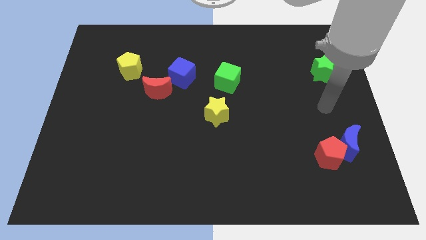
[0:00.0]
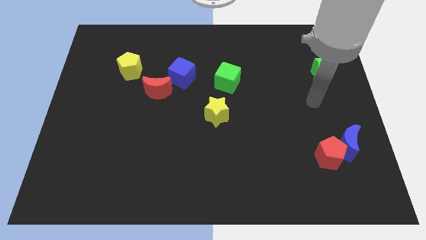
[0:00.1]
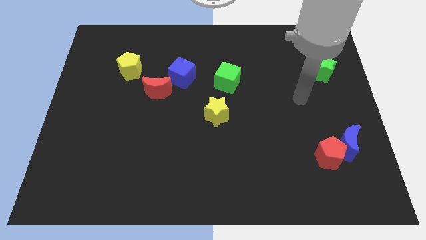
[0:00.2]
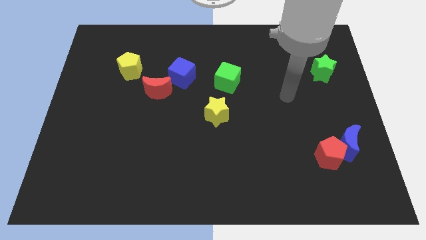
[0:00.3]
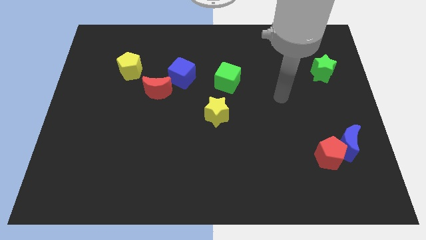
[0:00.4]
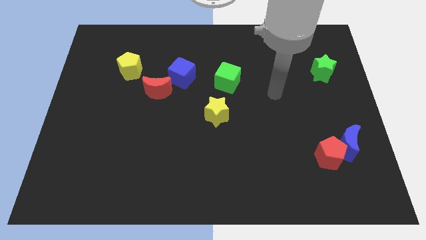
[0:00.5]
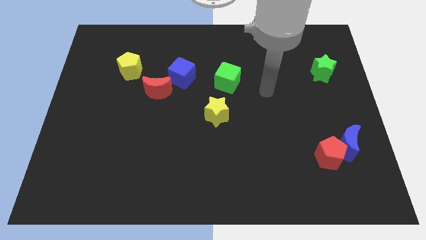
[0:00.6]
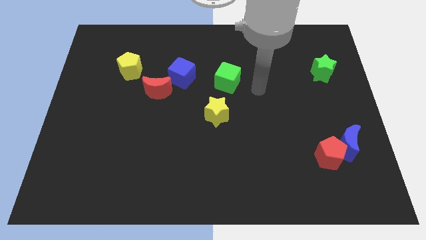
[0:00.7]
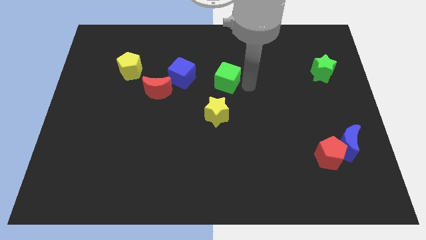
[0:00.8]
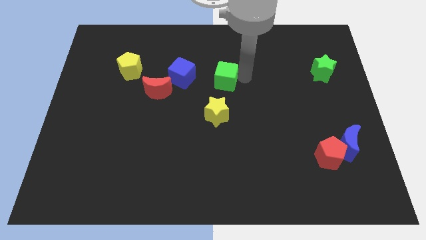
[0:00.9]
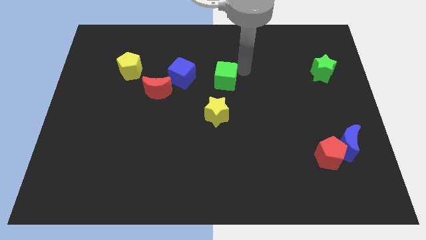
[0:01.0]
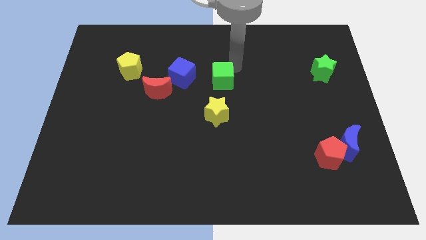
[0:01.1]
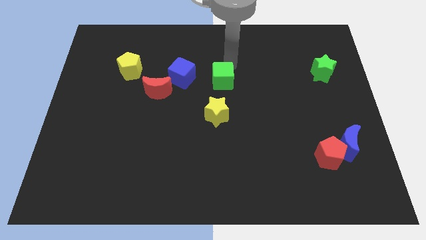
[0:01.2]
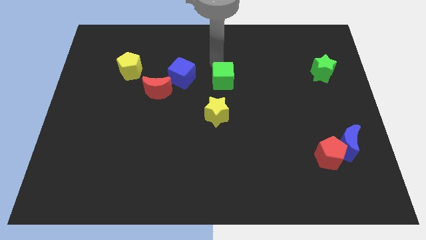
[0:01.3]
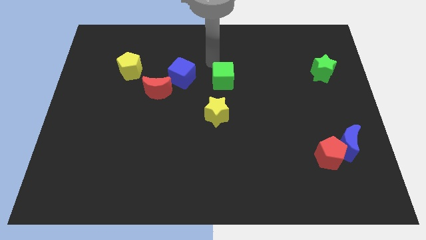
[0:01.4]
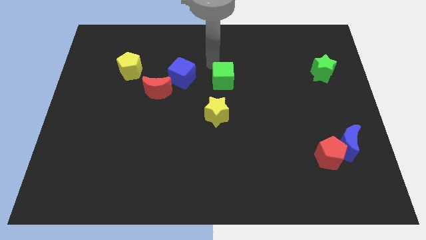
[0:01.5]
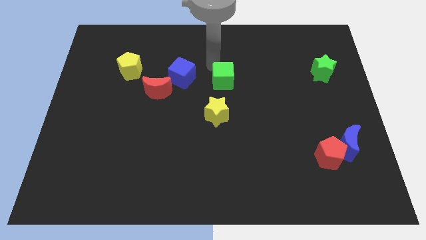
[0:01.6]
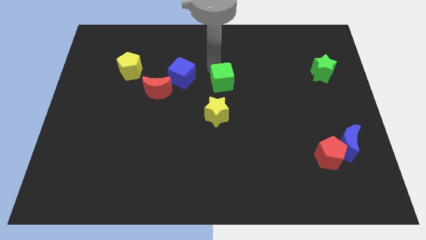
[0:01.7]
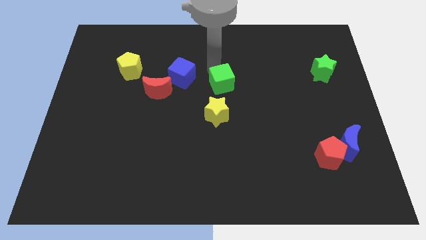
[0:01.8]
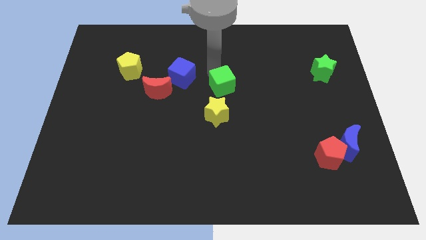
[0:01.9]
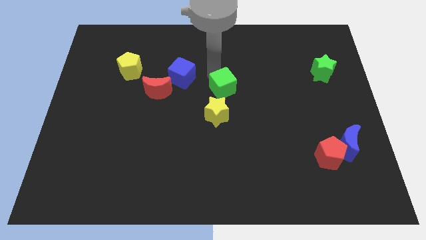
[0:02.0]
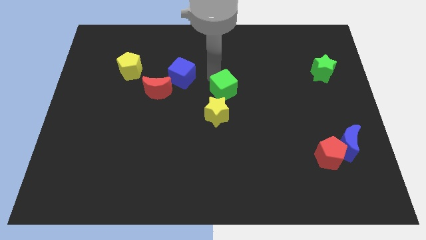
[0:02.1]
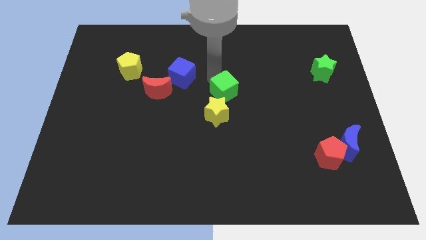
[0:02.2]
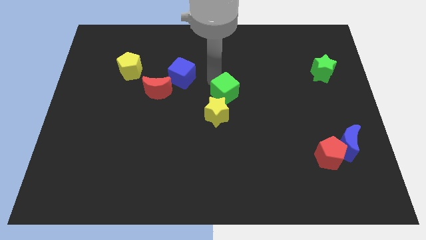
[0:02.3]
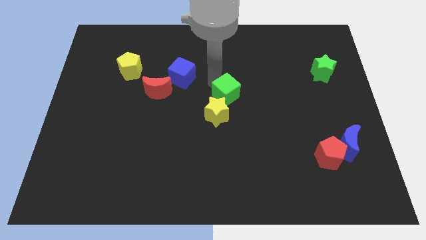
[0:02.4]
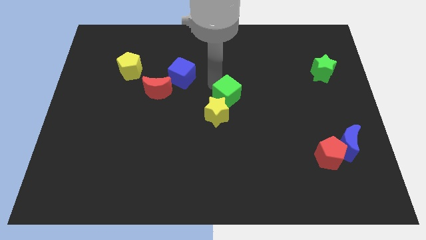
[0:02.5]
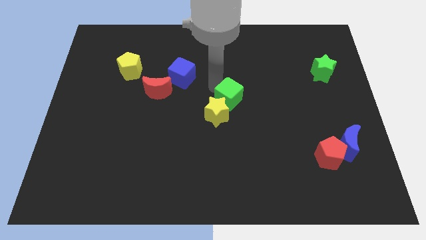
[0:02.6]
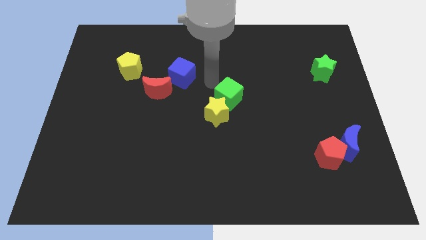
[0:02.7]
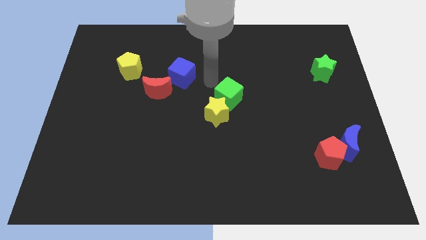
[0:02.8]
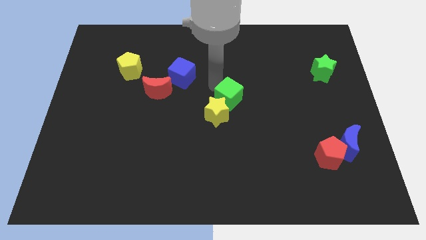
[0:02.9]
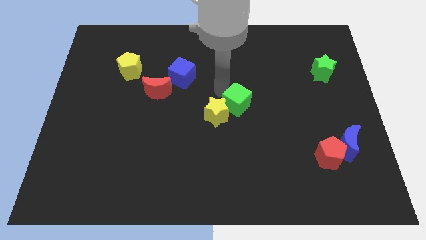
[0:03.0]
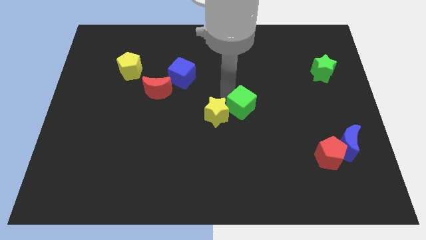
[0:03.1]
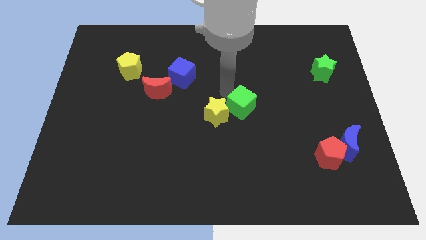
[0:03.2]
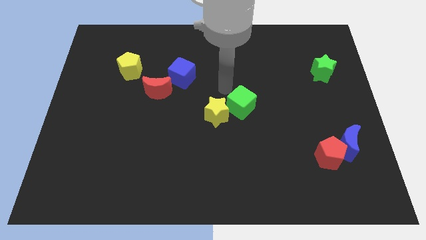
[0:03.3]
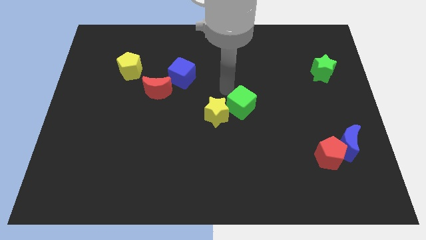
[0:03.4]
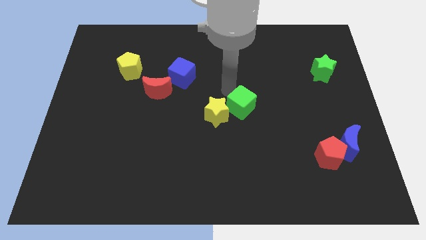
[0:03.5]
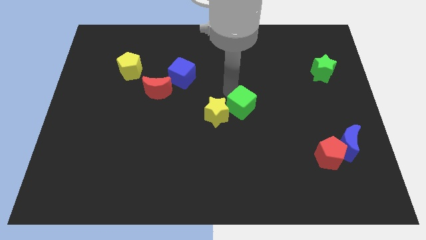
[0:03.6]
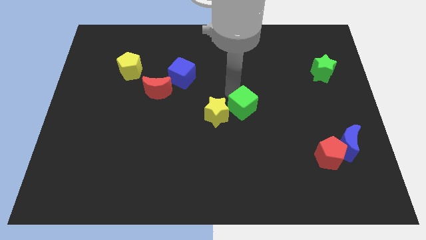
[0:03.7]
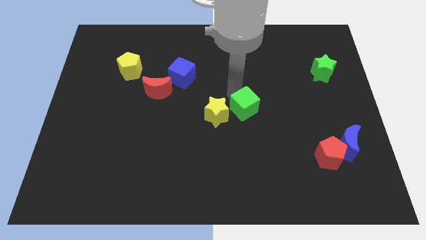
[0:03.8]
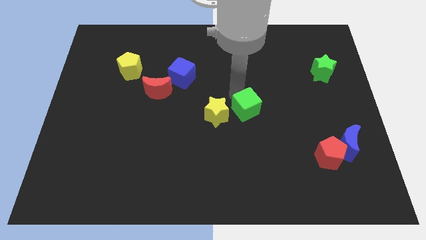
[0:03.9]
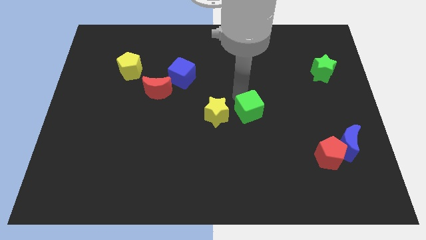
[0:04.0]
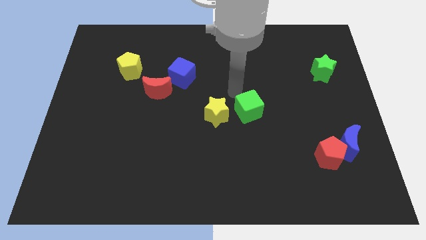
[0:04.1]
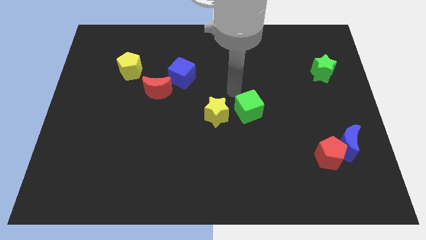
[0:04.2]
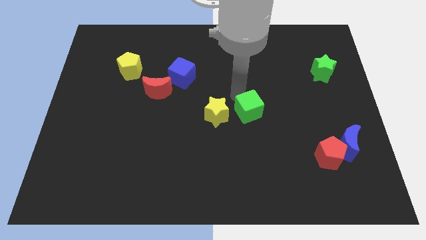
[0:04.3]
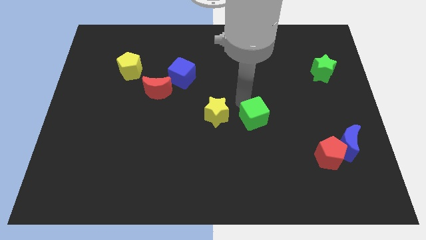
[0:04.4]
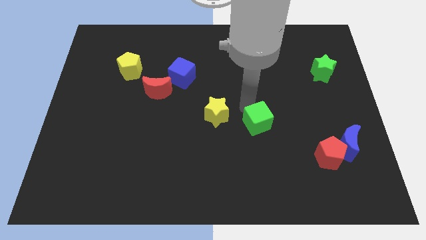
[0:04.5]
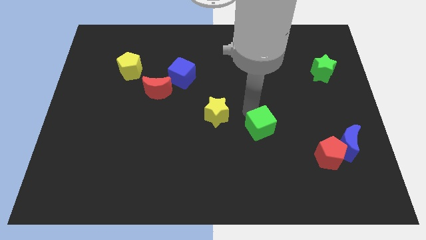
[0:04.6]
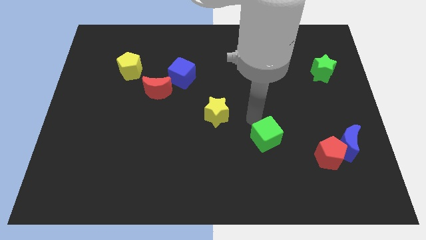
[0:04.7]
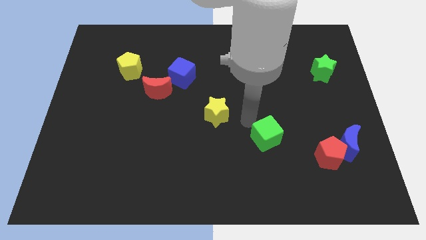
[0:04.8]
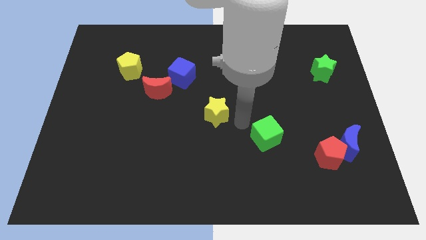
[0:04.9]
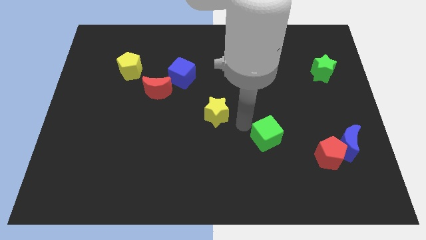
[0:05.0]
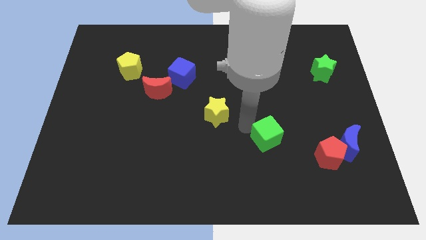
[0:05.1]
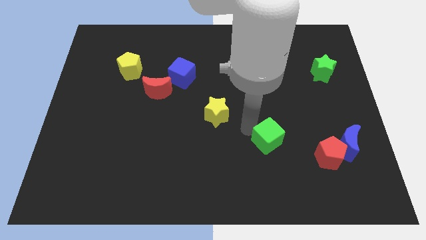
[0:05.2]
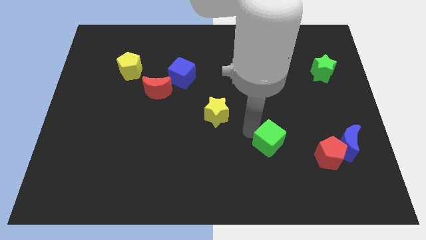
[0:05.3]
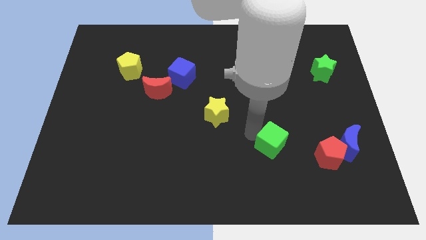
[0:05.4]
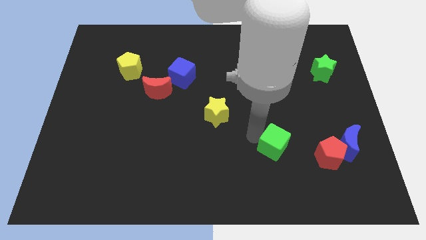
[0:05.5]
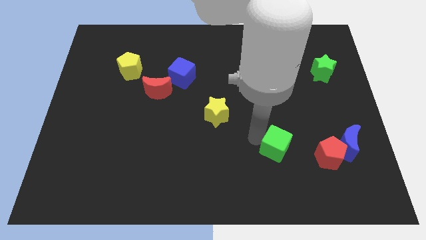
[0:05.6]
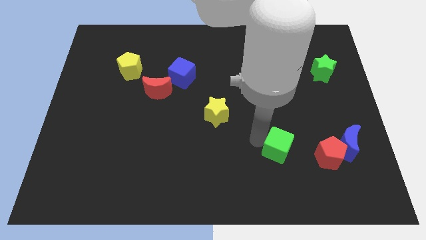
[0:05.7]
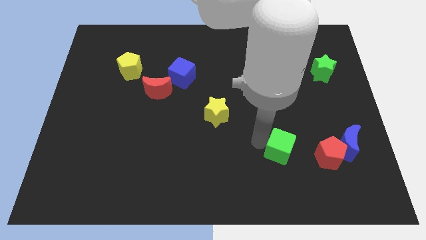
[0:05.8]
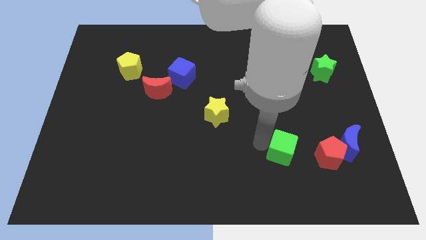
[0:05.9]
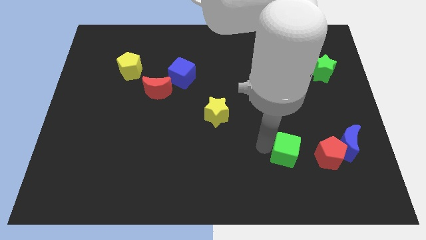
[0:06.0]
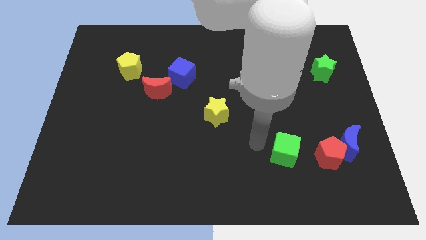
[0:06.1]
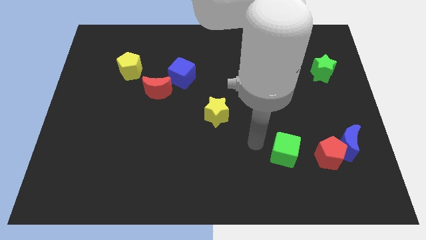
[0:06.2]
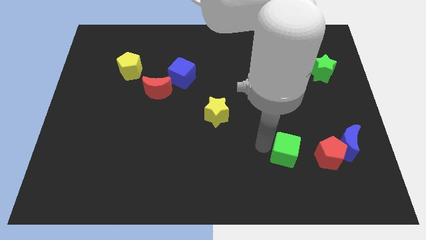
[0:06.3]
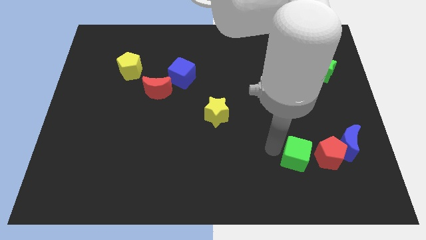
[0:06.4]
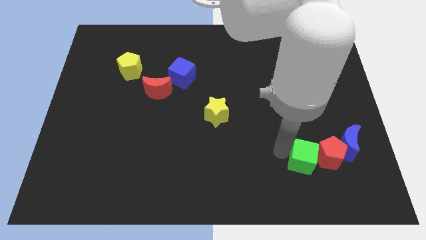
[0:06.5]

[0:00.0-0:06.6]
put the green cube to the bottom left of the blue moon

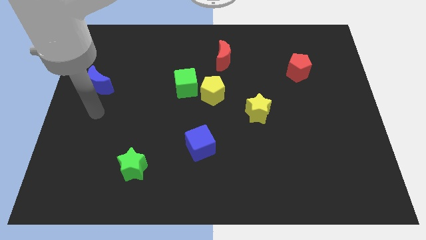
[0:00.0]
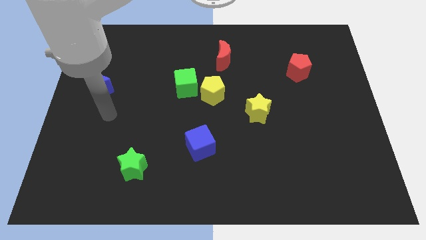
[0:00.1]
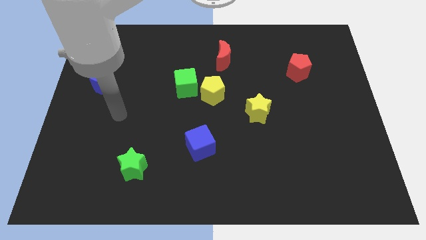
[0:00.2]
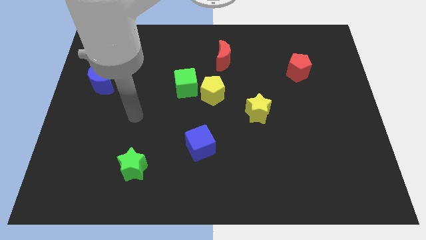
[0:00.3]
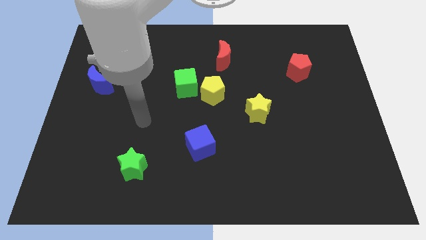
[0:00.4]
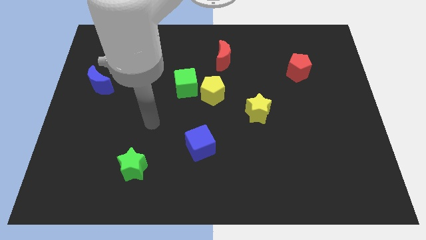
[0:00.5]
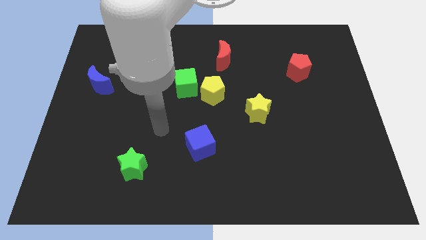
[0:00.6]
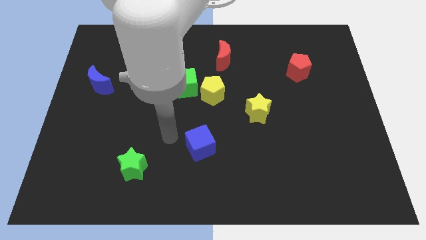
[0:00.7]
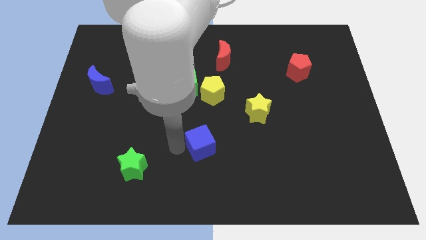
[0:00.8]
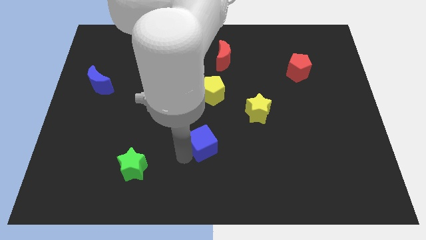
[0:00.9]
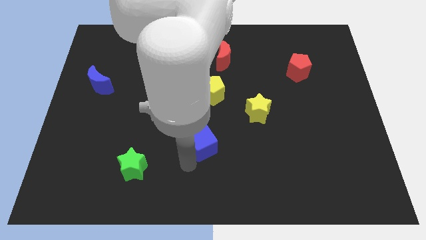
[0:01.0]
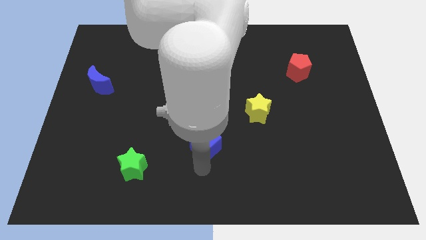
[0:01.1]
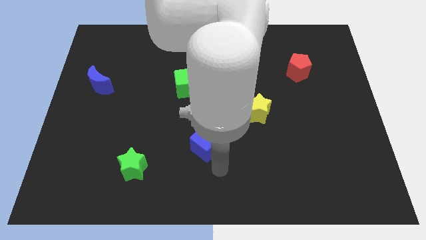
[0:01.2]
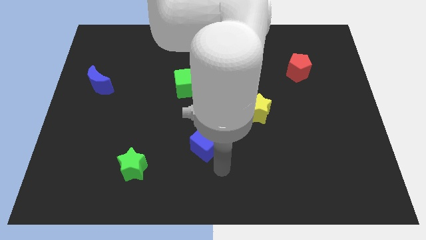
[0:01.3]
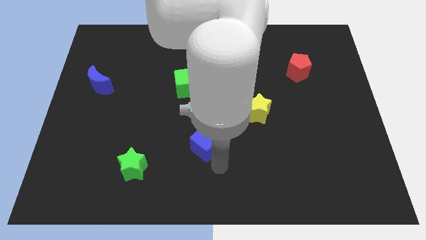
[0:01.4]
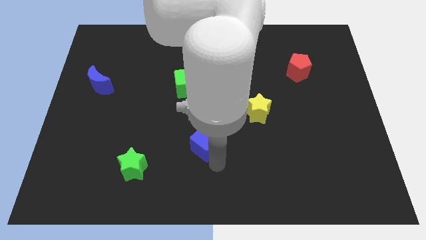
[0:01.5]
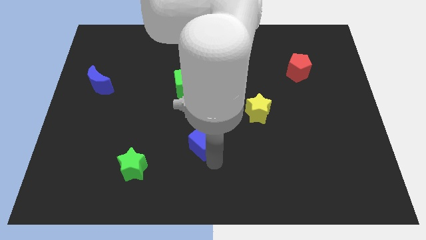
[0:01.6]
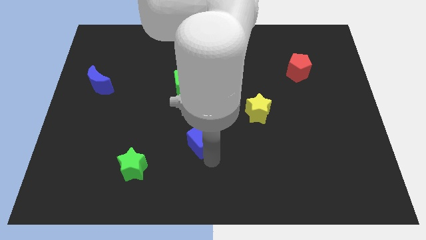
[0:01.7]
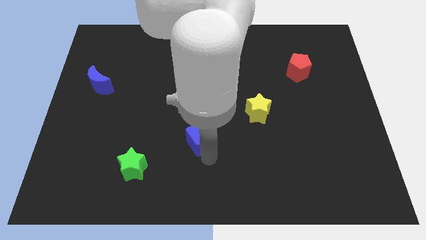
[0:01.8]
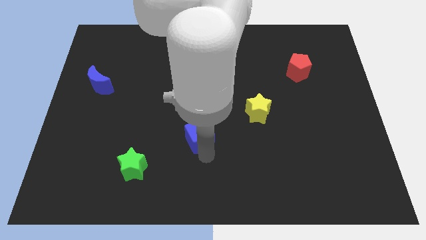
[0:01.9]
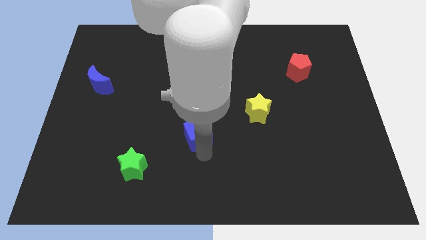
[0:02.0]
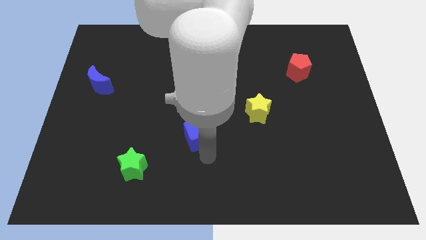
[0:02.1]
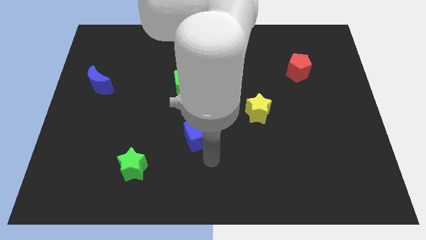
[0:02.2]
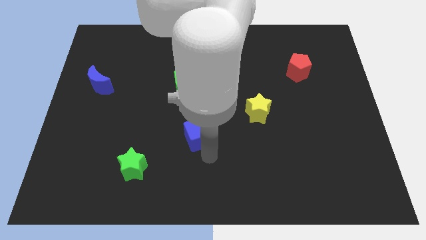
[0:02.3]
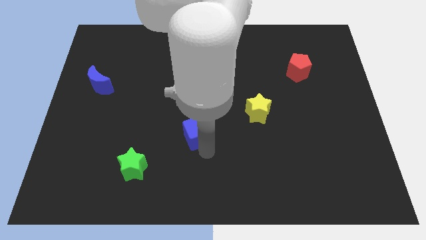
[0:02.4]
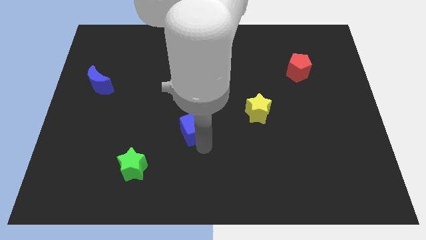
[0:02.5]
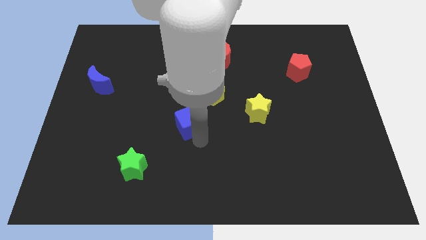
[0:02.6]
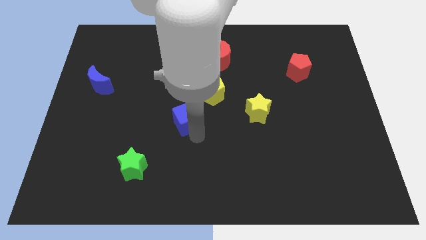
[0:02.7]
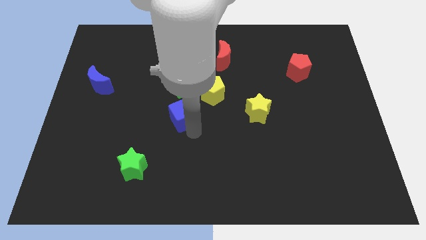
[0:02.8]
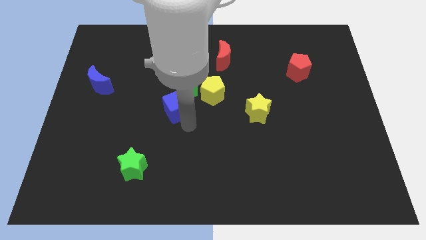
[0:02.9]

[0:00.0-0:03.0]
push the blue cube to the left of the yellow pentagon
